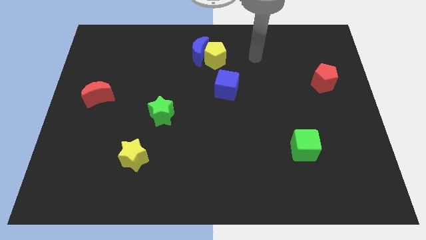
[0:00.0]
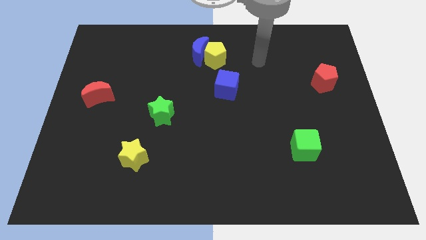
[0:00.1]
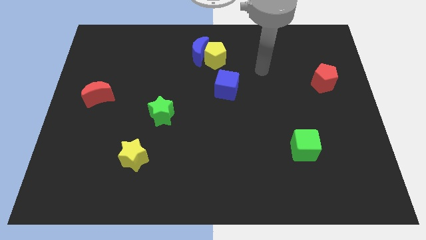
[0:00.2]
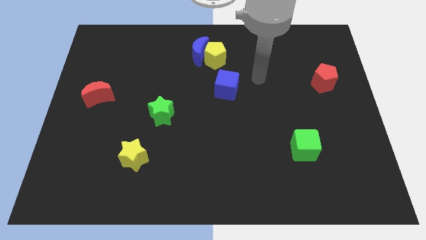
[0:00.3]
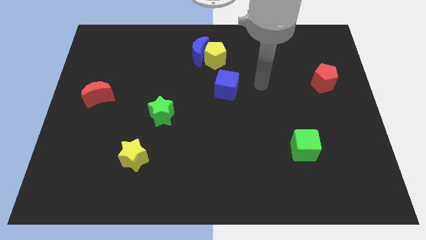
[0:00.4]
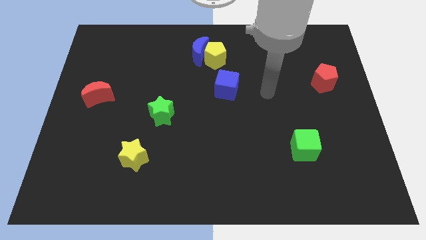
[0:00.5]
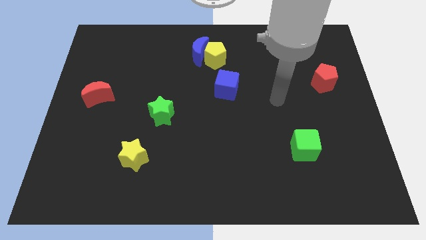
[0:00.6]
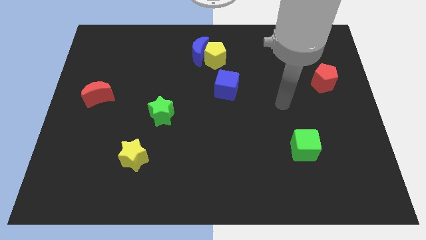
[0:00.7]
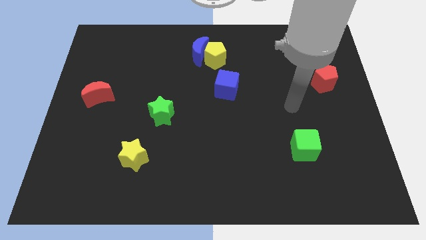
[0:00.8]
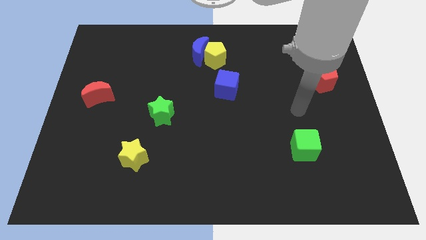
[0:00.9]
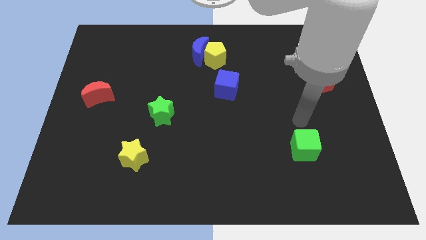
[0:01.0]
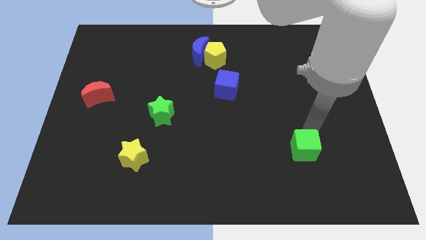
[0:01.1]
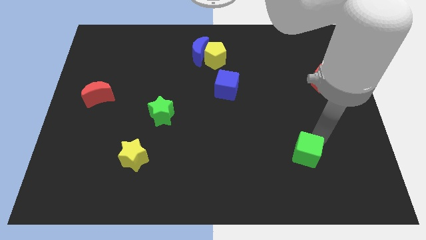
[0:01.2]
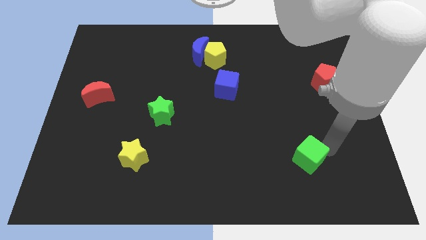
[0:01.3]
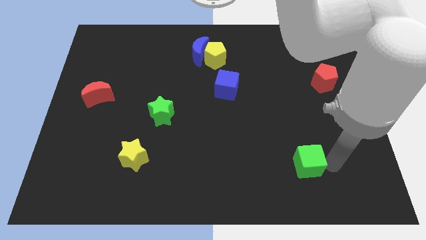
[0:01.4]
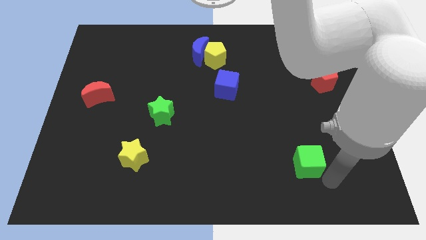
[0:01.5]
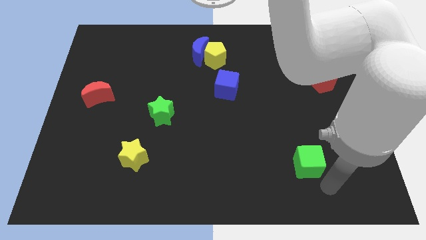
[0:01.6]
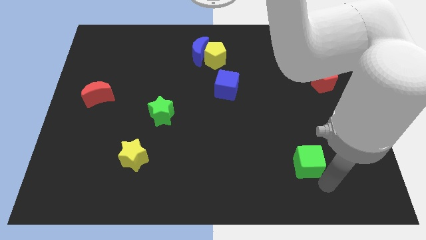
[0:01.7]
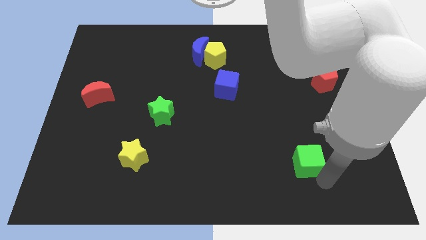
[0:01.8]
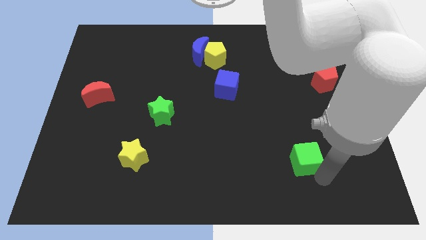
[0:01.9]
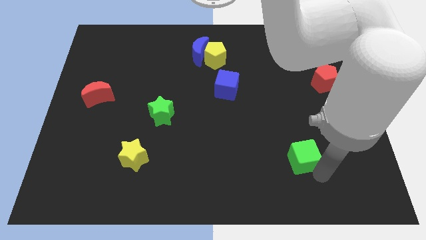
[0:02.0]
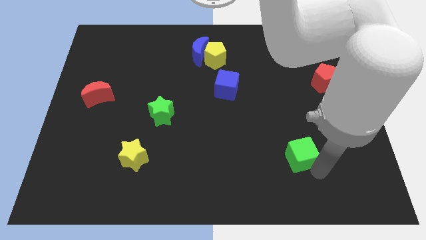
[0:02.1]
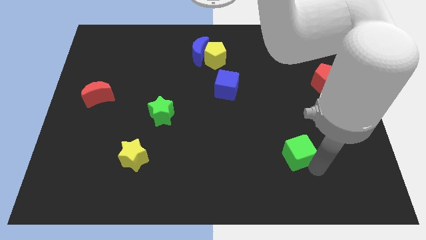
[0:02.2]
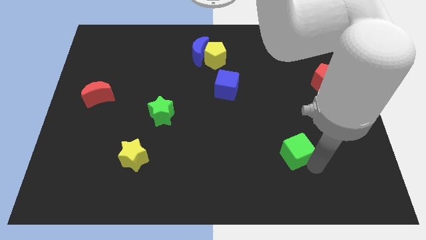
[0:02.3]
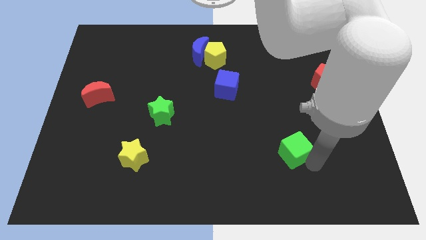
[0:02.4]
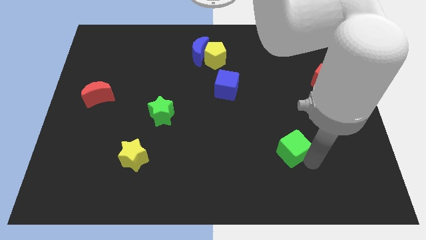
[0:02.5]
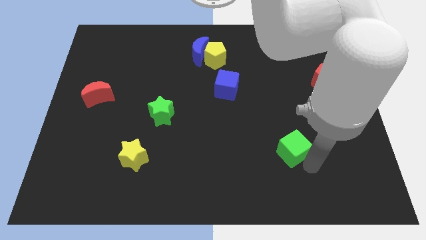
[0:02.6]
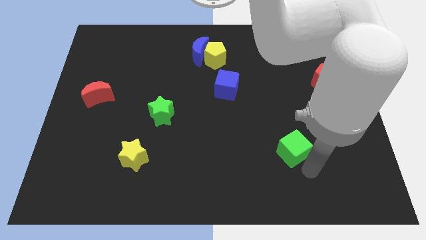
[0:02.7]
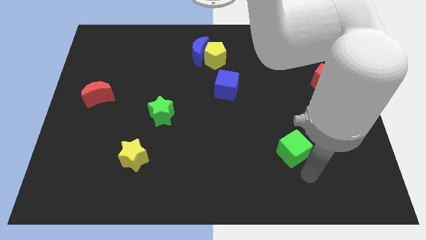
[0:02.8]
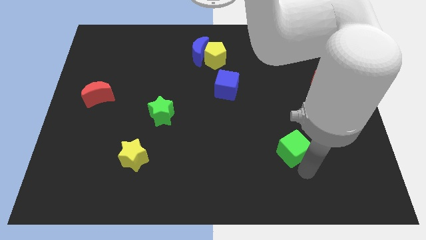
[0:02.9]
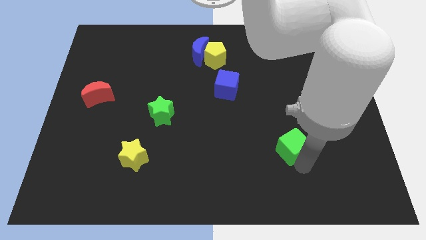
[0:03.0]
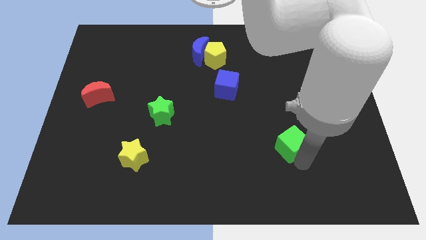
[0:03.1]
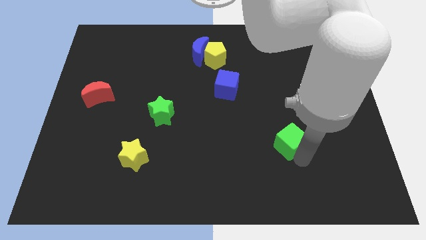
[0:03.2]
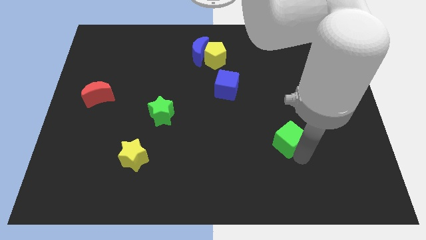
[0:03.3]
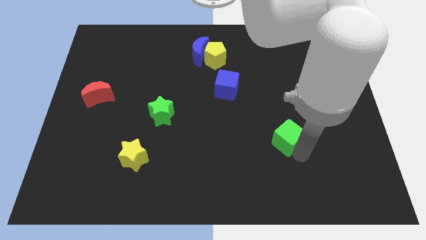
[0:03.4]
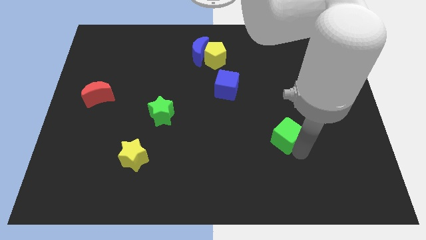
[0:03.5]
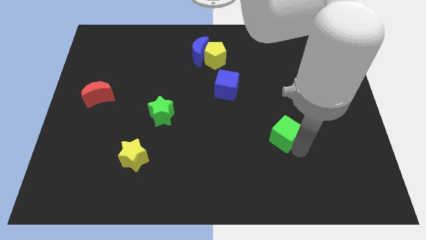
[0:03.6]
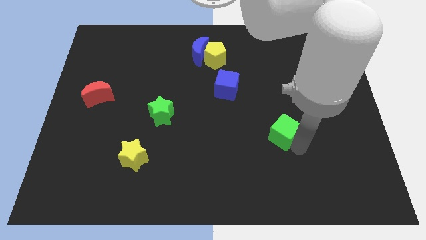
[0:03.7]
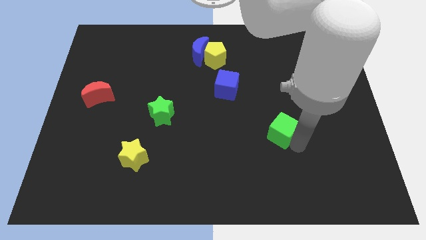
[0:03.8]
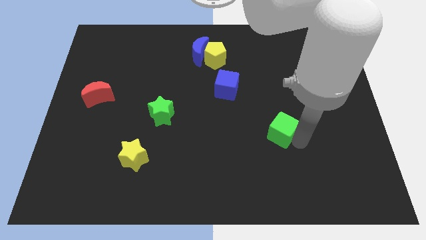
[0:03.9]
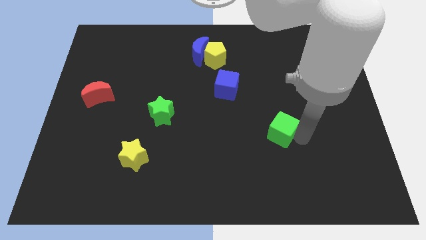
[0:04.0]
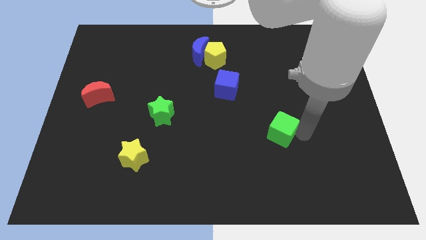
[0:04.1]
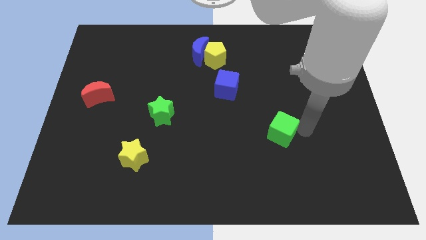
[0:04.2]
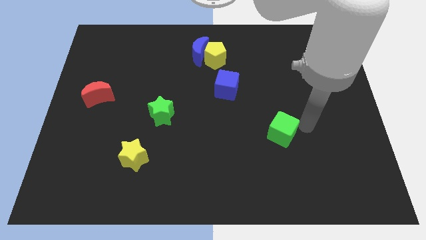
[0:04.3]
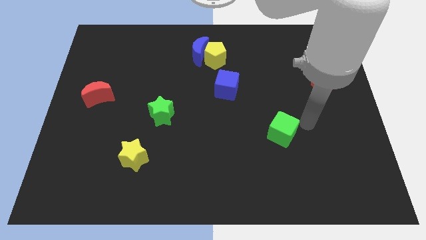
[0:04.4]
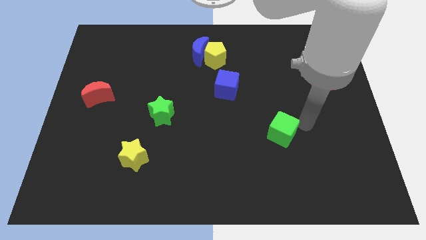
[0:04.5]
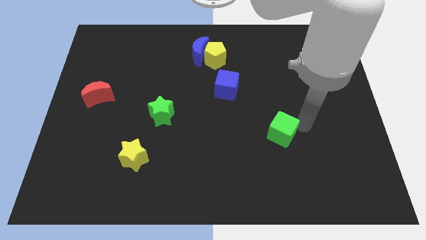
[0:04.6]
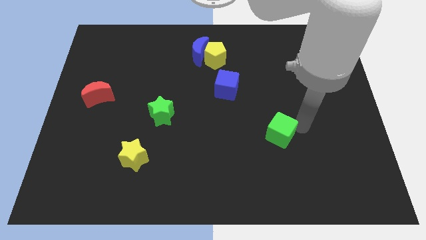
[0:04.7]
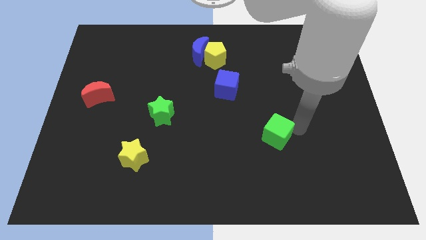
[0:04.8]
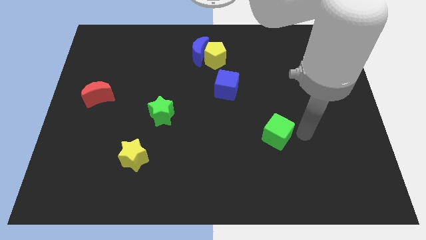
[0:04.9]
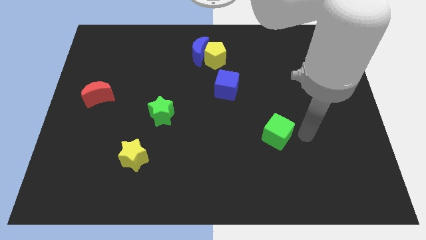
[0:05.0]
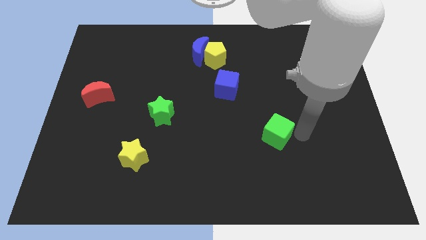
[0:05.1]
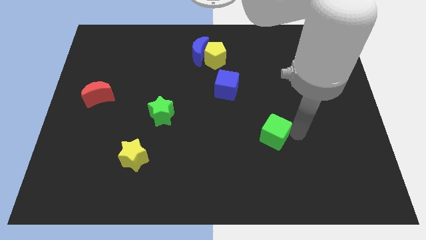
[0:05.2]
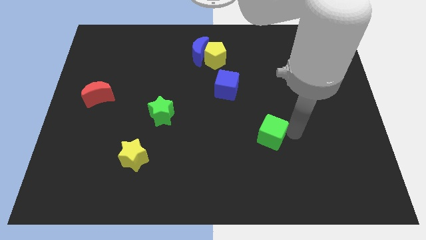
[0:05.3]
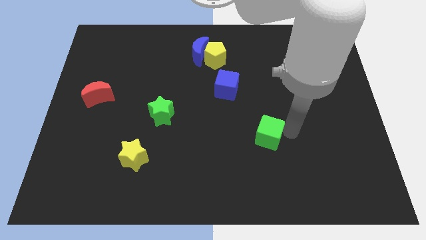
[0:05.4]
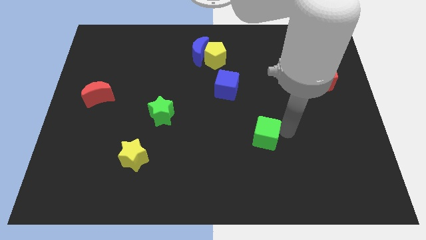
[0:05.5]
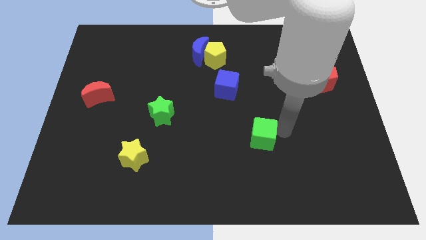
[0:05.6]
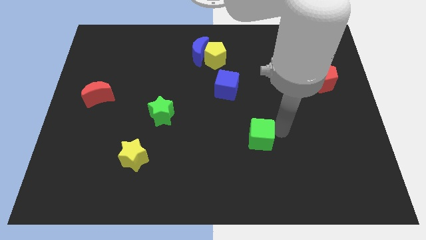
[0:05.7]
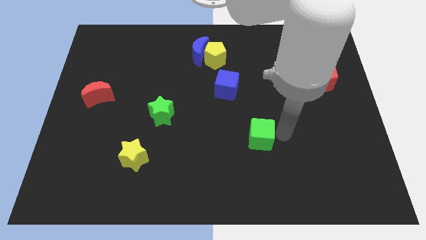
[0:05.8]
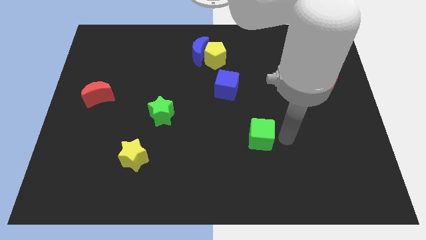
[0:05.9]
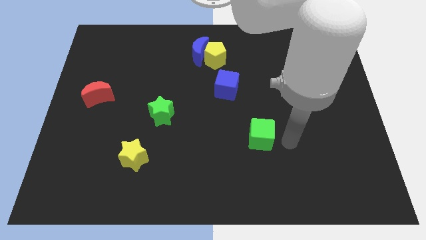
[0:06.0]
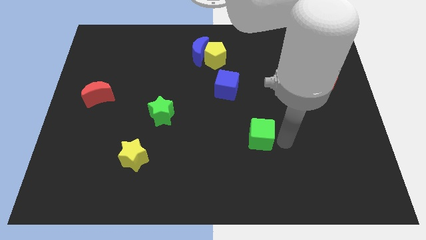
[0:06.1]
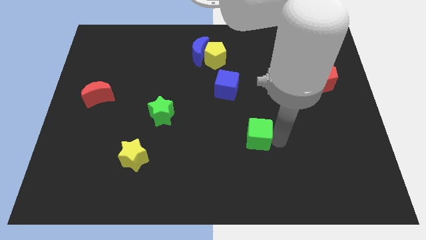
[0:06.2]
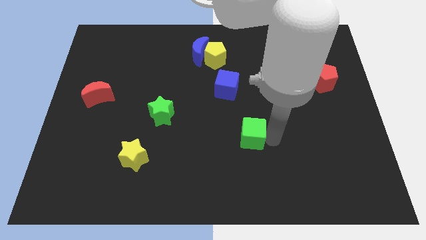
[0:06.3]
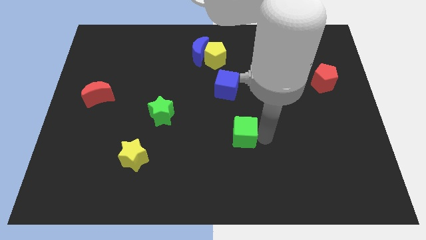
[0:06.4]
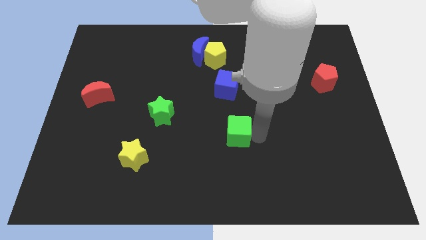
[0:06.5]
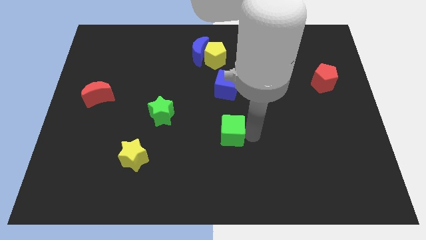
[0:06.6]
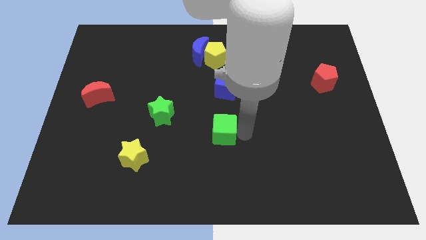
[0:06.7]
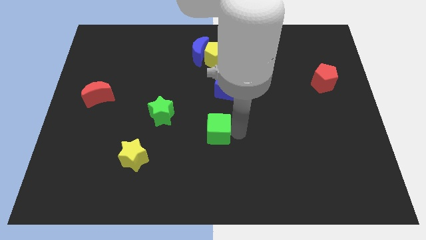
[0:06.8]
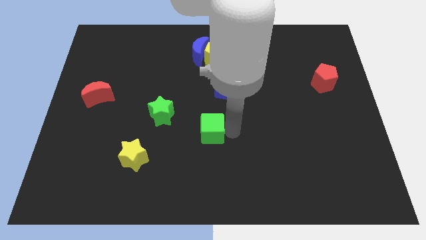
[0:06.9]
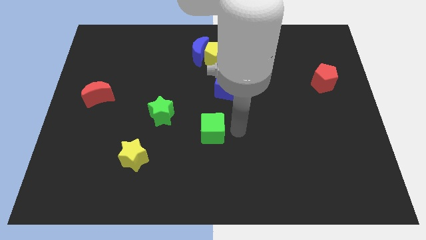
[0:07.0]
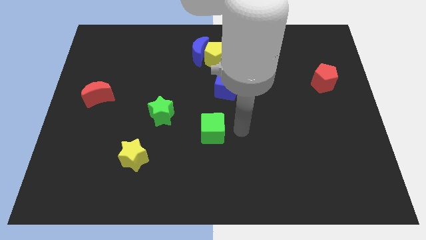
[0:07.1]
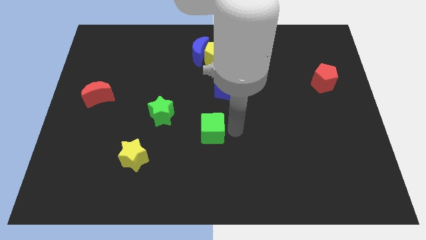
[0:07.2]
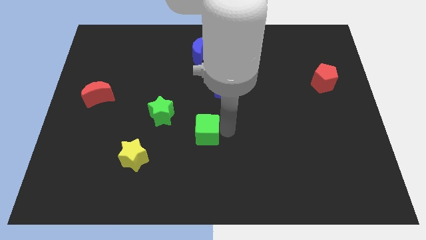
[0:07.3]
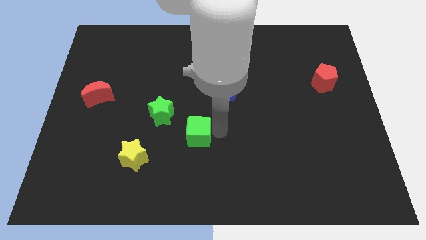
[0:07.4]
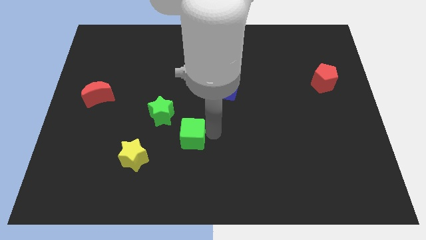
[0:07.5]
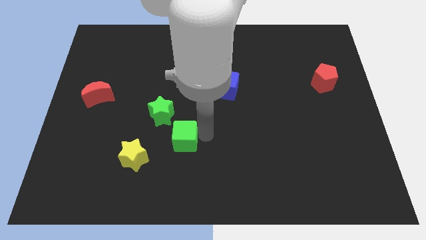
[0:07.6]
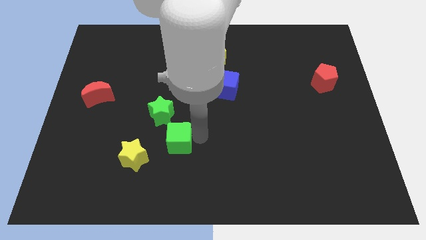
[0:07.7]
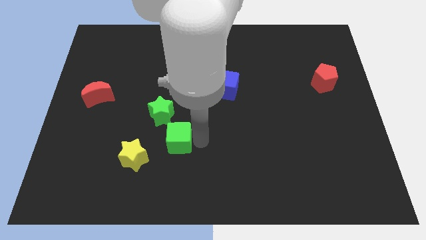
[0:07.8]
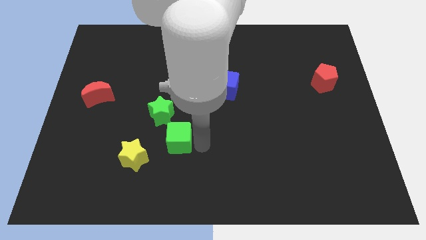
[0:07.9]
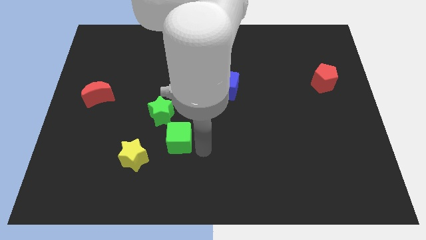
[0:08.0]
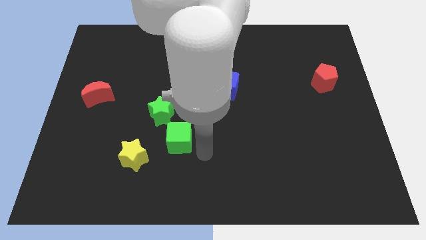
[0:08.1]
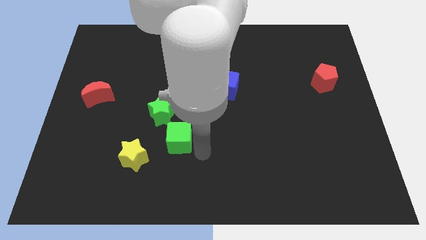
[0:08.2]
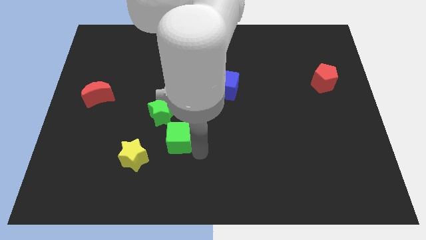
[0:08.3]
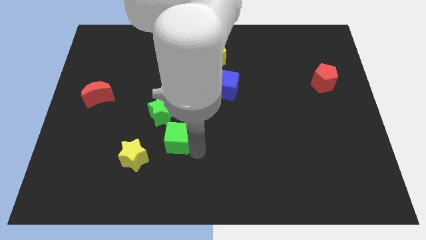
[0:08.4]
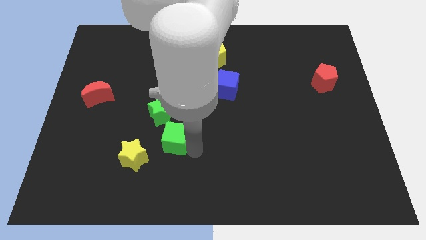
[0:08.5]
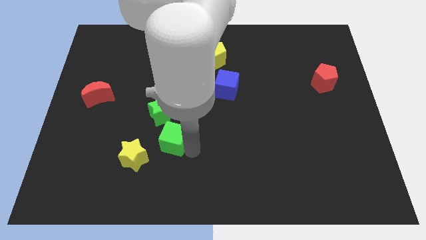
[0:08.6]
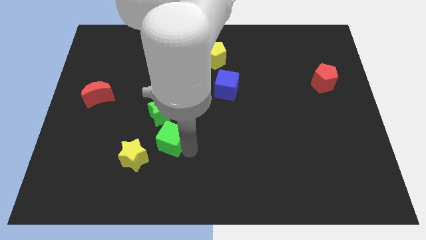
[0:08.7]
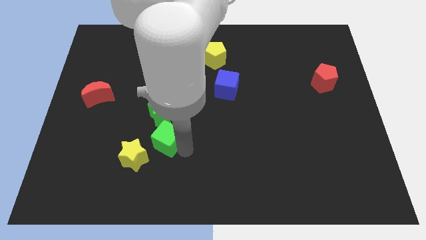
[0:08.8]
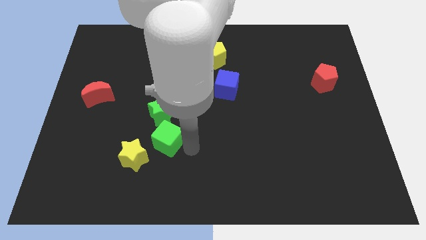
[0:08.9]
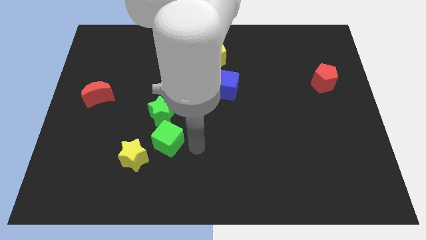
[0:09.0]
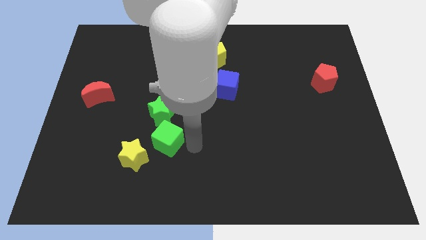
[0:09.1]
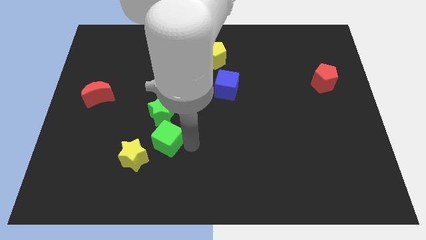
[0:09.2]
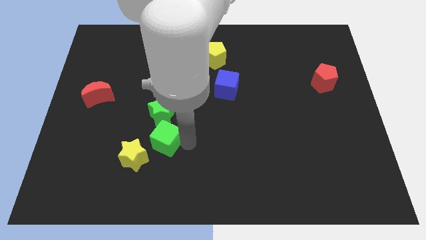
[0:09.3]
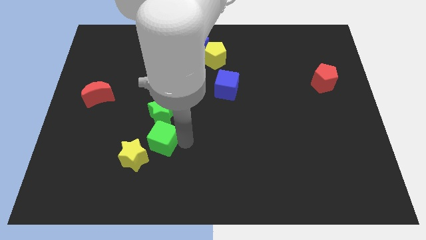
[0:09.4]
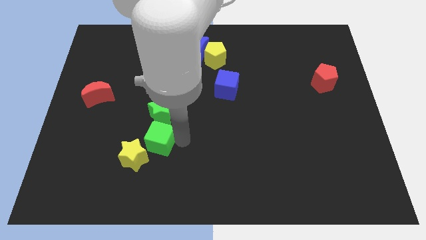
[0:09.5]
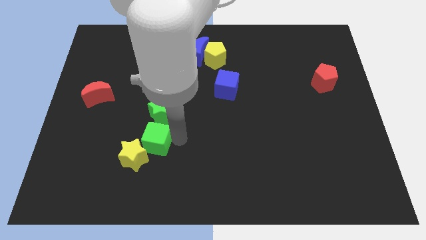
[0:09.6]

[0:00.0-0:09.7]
put the green cube to the bottom left side of the green star
